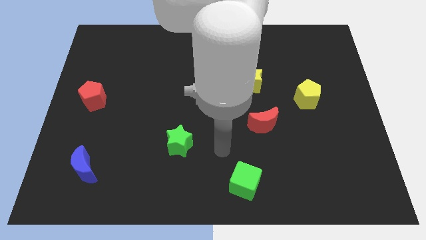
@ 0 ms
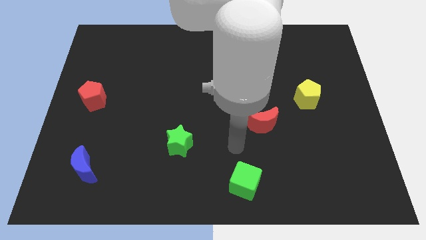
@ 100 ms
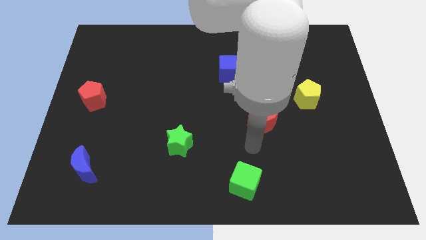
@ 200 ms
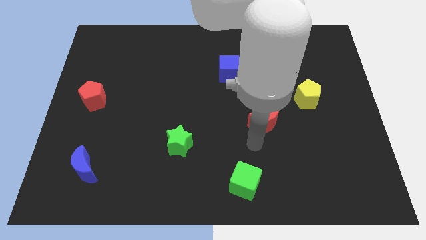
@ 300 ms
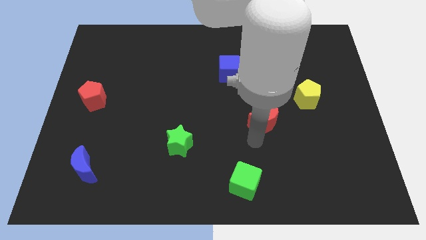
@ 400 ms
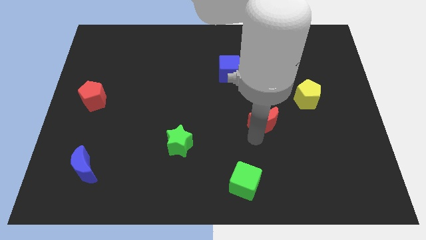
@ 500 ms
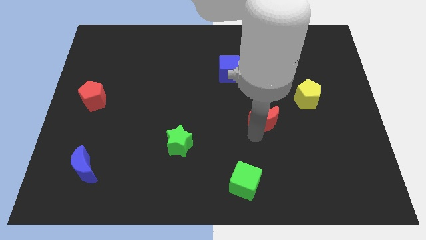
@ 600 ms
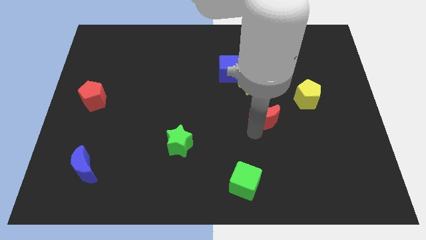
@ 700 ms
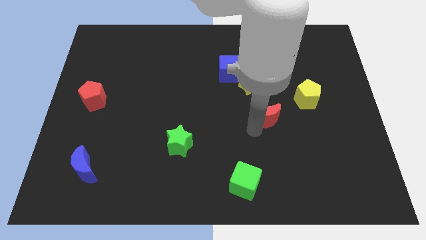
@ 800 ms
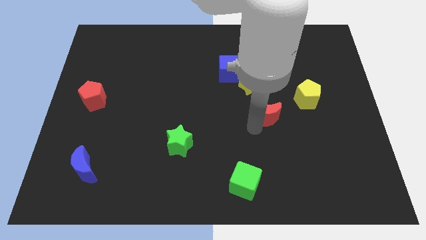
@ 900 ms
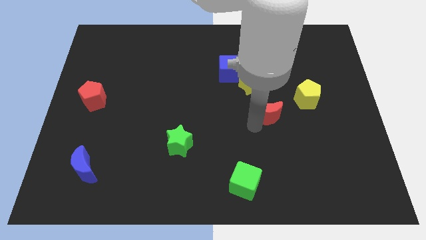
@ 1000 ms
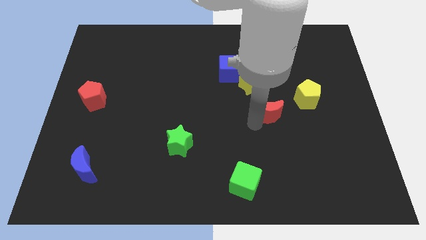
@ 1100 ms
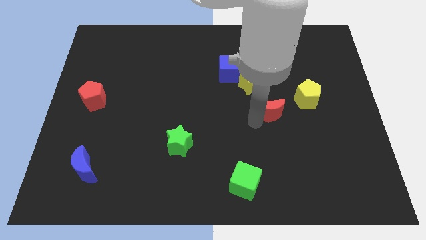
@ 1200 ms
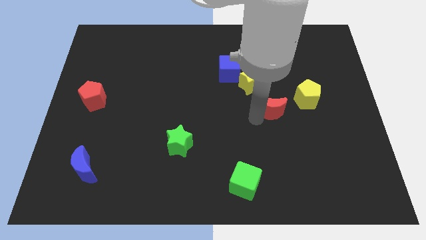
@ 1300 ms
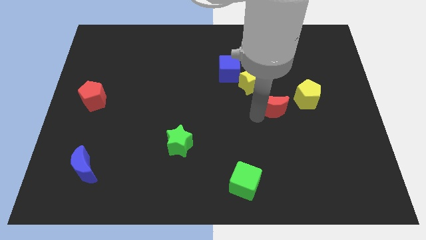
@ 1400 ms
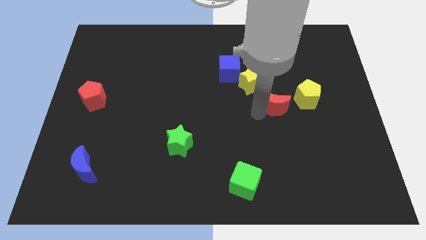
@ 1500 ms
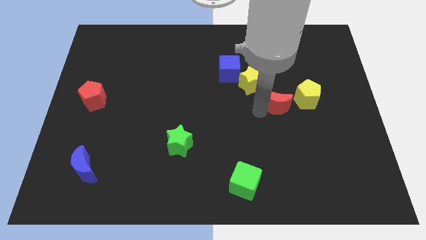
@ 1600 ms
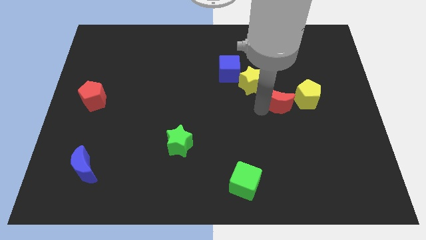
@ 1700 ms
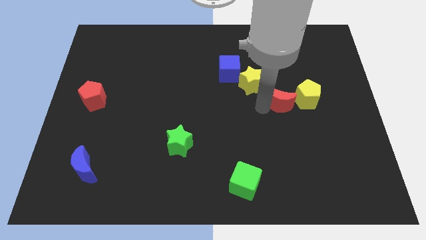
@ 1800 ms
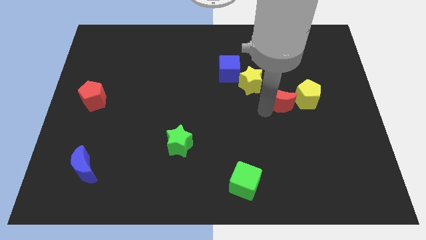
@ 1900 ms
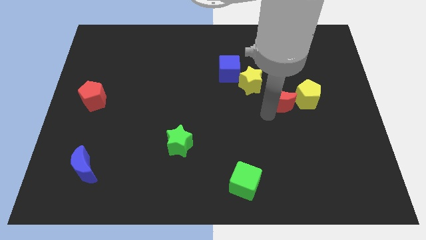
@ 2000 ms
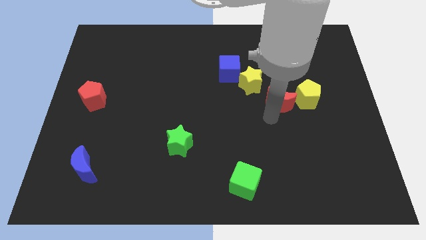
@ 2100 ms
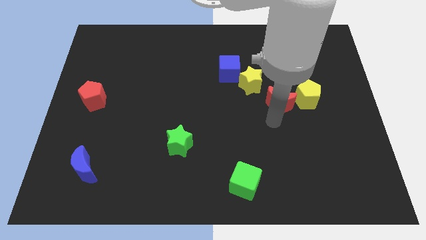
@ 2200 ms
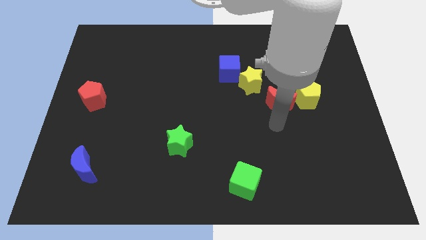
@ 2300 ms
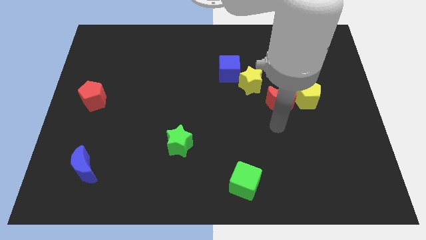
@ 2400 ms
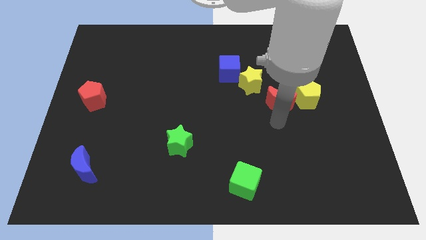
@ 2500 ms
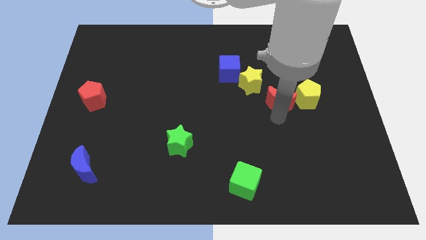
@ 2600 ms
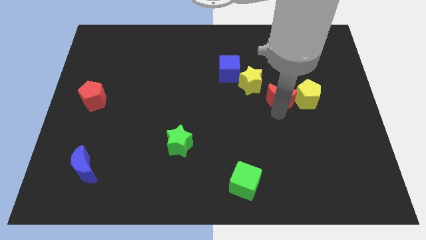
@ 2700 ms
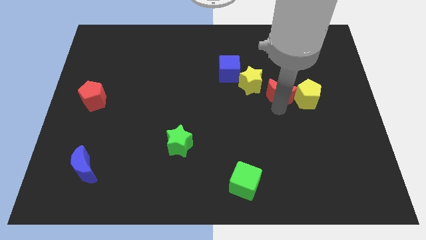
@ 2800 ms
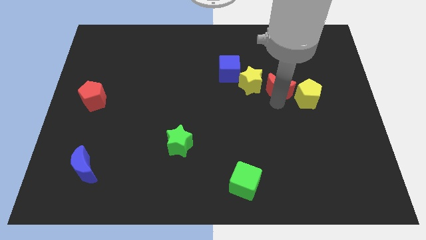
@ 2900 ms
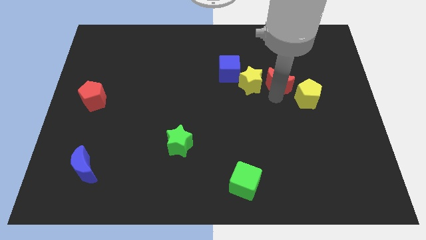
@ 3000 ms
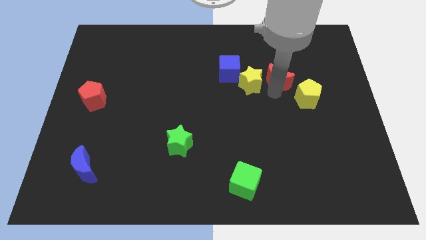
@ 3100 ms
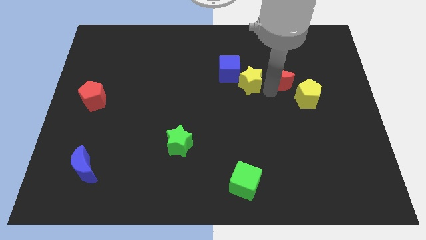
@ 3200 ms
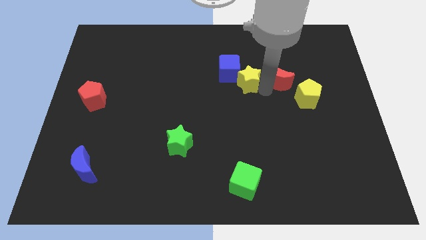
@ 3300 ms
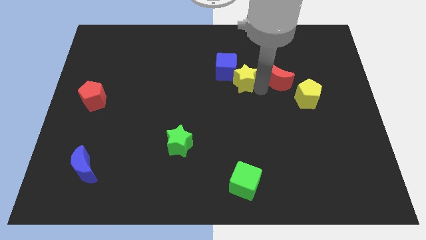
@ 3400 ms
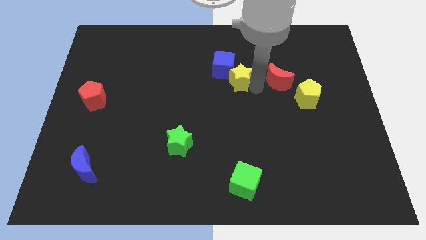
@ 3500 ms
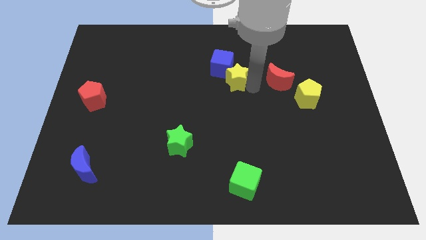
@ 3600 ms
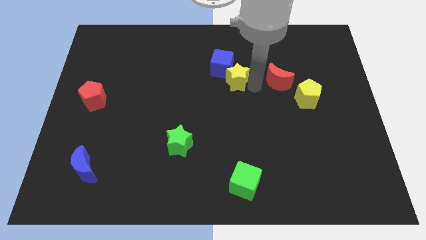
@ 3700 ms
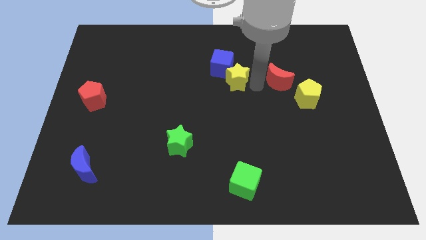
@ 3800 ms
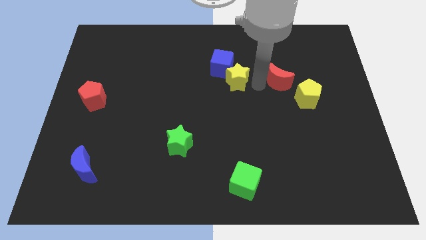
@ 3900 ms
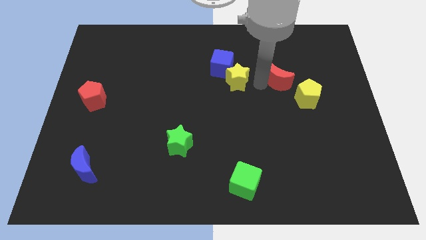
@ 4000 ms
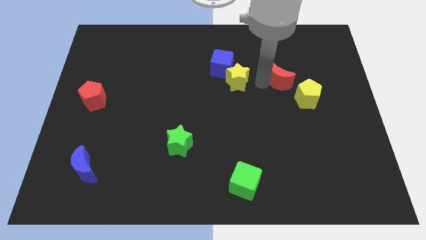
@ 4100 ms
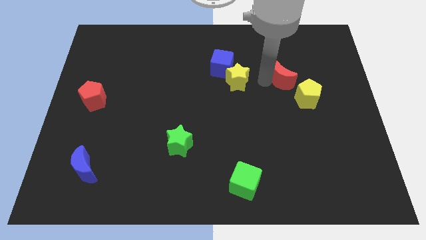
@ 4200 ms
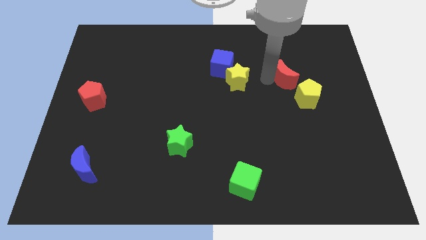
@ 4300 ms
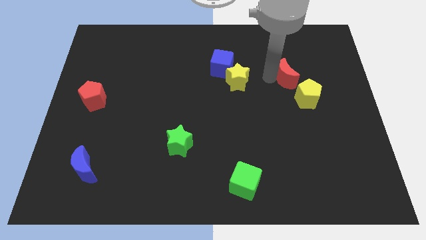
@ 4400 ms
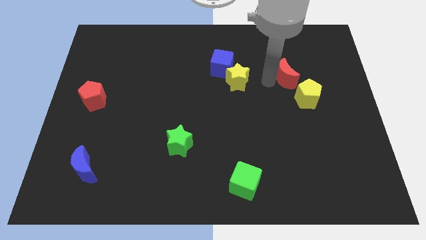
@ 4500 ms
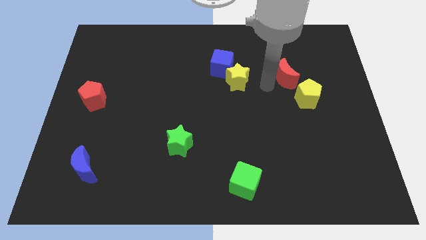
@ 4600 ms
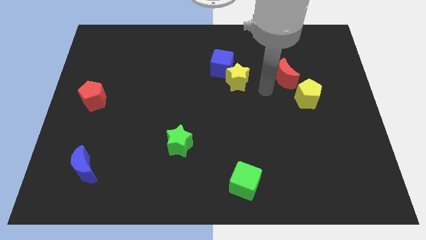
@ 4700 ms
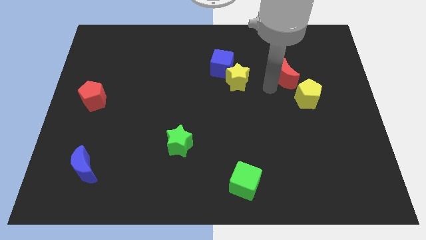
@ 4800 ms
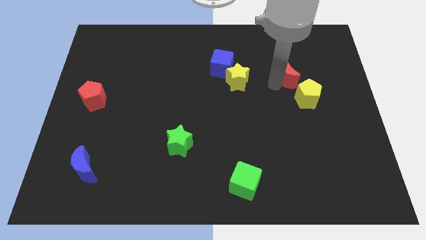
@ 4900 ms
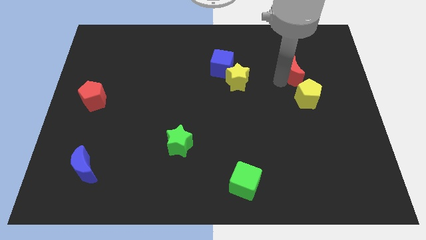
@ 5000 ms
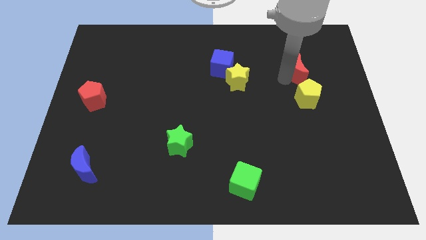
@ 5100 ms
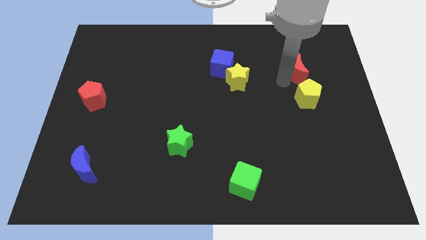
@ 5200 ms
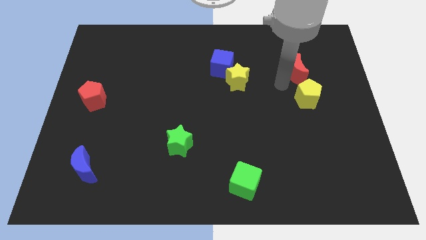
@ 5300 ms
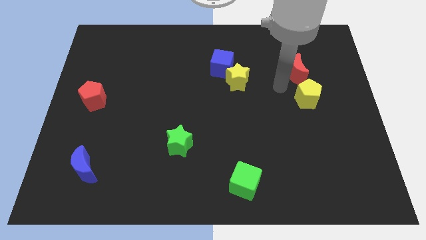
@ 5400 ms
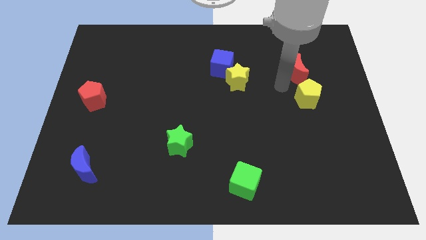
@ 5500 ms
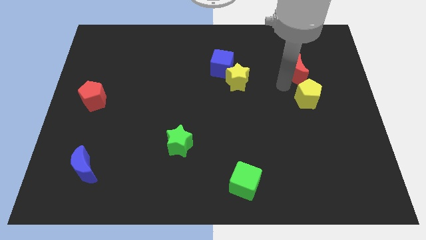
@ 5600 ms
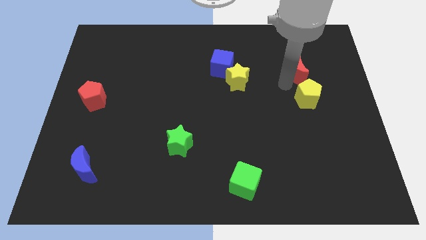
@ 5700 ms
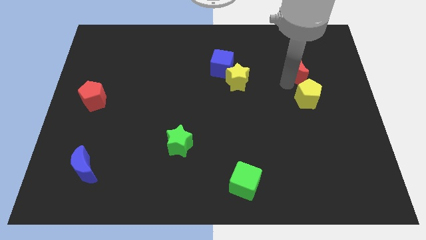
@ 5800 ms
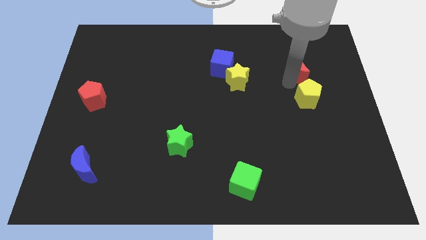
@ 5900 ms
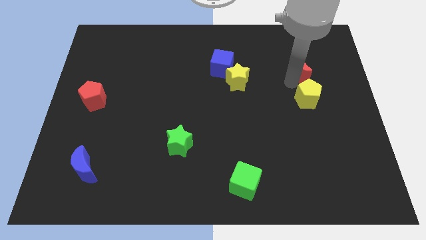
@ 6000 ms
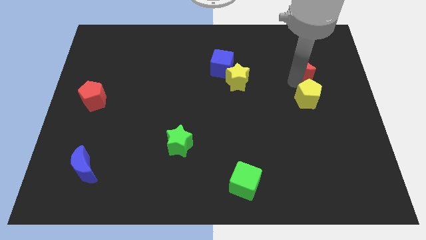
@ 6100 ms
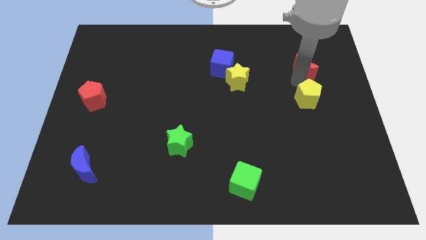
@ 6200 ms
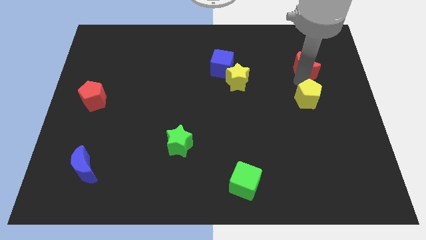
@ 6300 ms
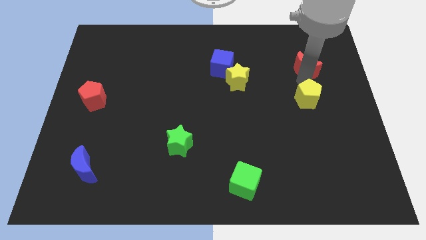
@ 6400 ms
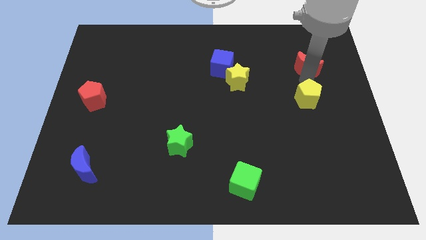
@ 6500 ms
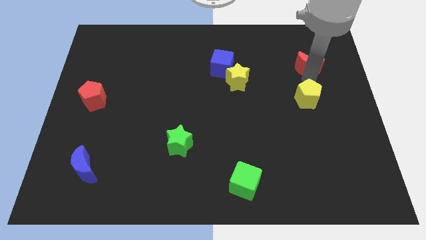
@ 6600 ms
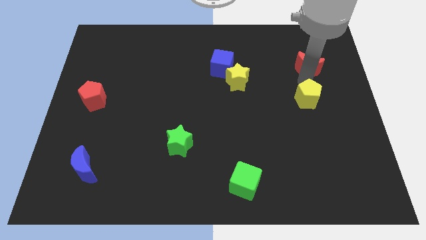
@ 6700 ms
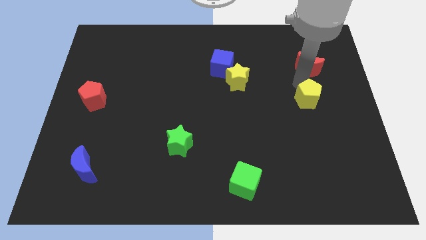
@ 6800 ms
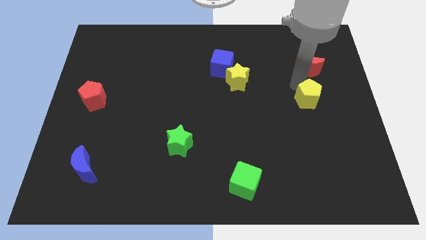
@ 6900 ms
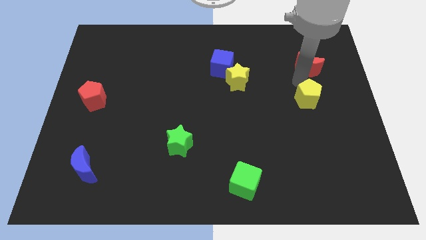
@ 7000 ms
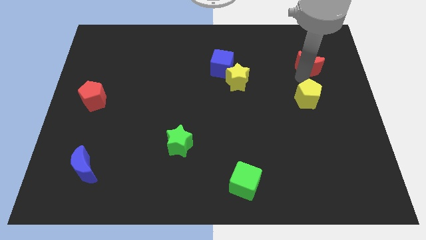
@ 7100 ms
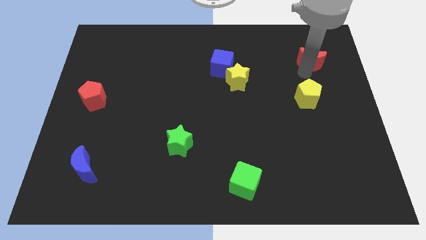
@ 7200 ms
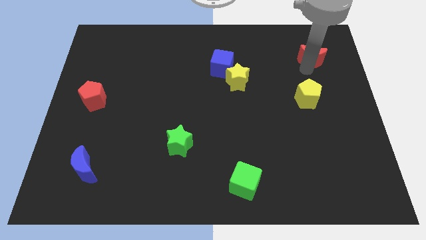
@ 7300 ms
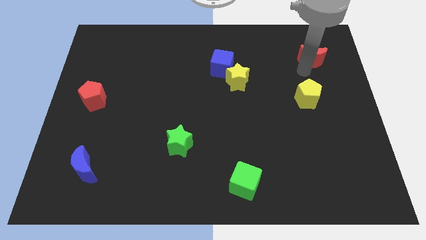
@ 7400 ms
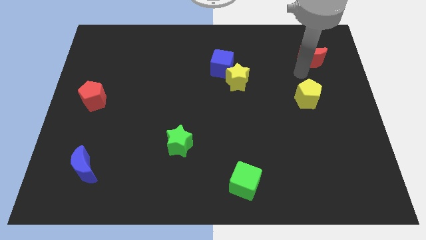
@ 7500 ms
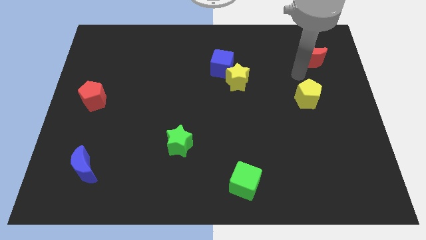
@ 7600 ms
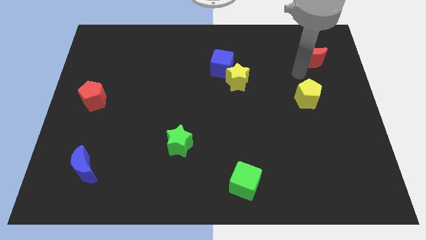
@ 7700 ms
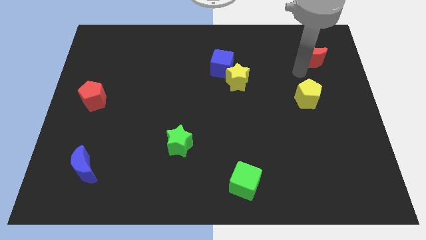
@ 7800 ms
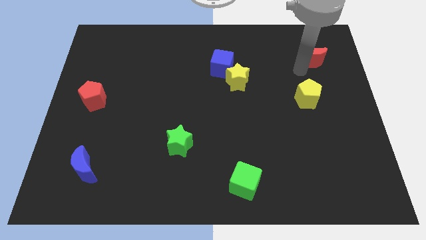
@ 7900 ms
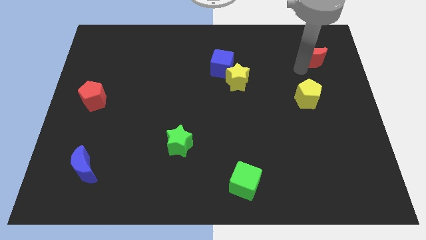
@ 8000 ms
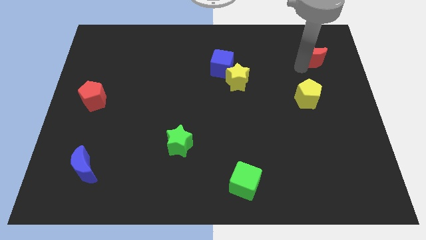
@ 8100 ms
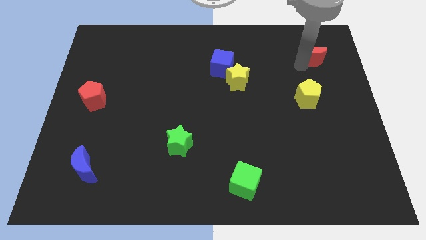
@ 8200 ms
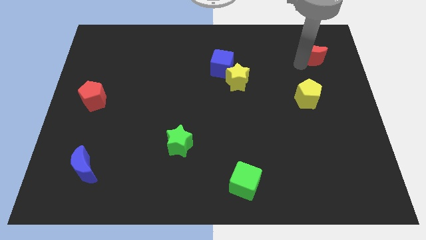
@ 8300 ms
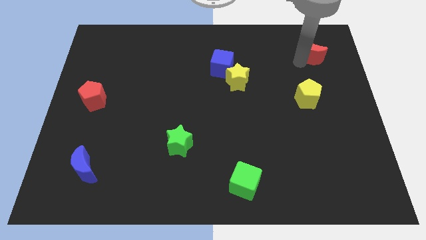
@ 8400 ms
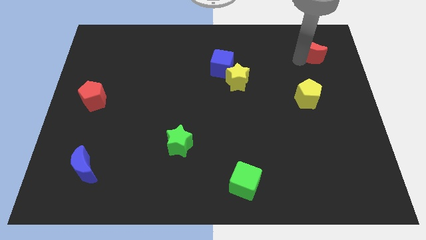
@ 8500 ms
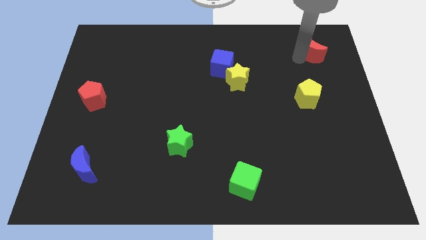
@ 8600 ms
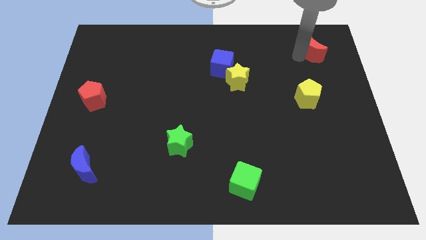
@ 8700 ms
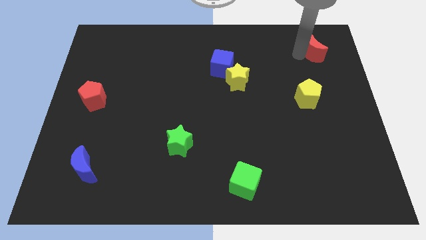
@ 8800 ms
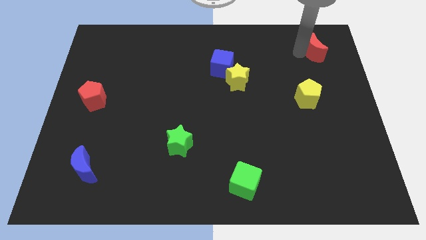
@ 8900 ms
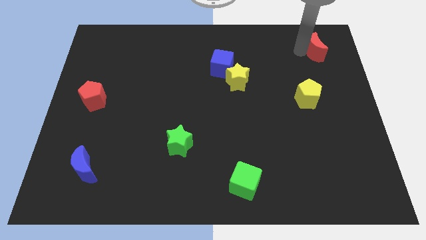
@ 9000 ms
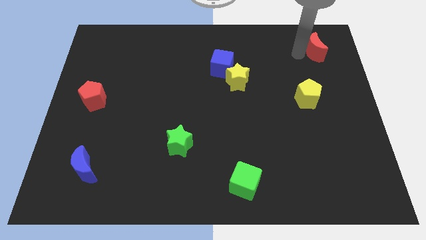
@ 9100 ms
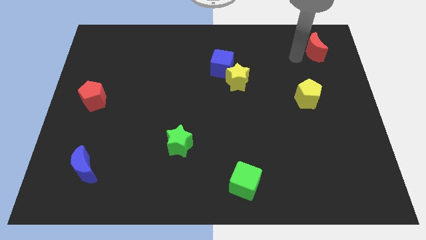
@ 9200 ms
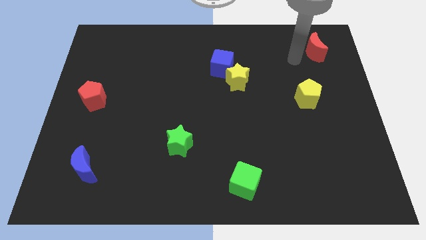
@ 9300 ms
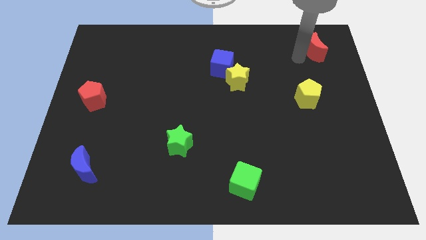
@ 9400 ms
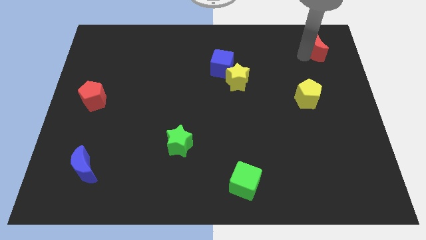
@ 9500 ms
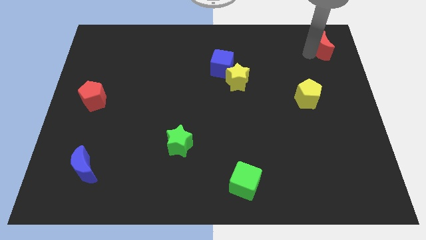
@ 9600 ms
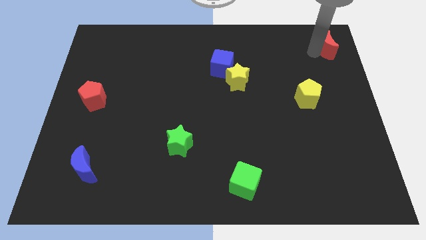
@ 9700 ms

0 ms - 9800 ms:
put the red moon to the top right
